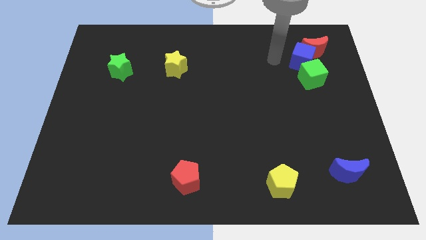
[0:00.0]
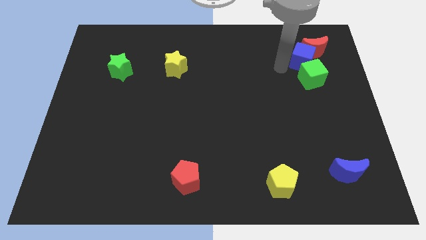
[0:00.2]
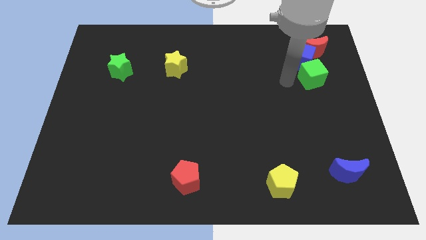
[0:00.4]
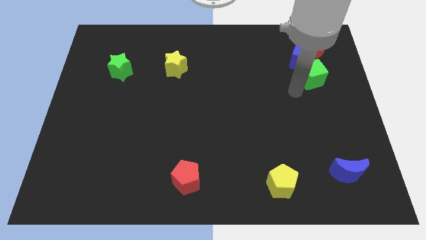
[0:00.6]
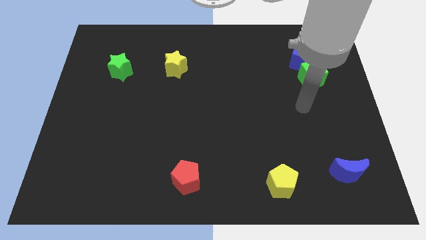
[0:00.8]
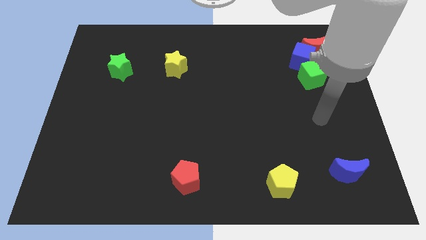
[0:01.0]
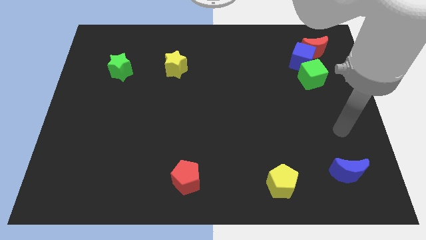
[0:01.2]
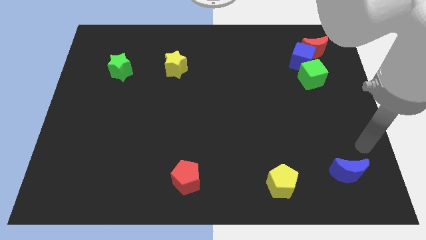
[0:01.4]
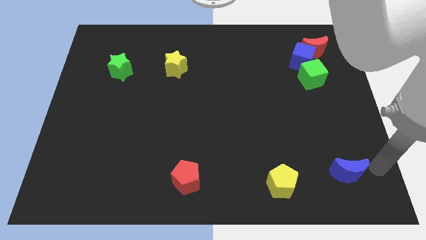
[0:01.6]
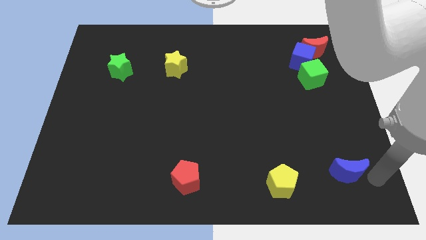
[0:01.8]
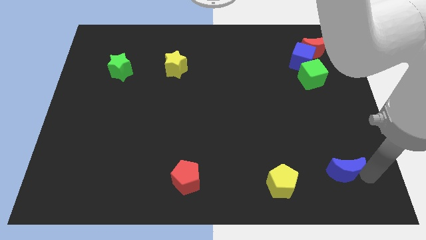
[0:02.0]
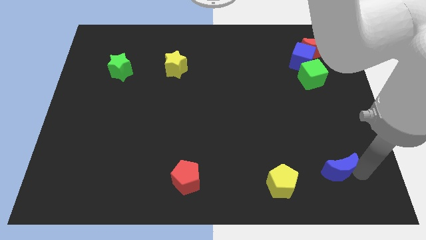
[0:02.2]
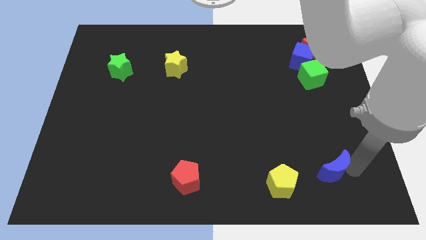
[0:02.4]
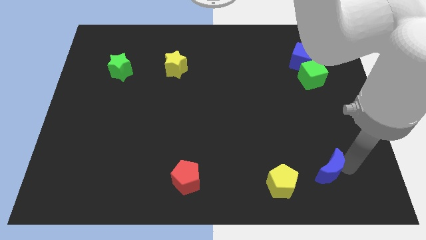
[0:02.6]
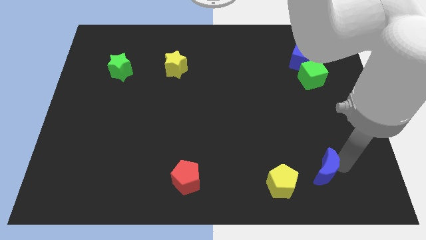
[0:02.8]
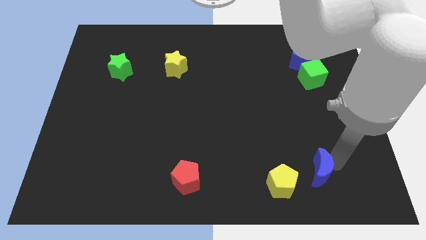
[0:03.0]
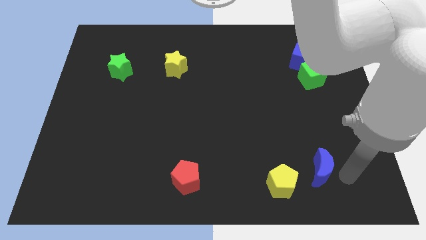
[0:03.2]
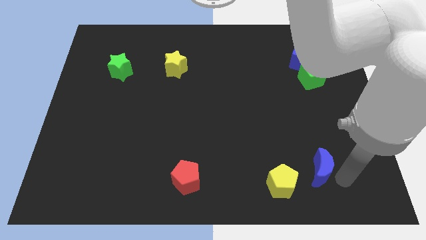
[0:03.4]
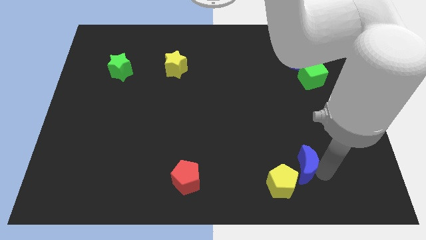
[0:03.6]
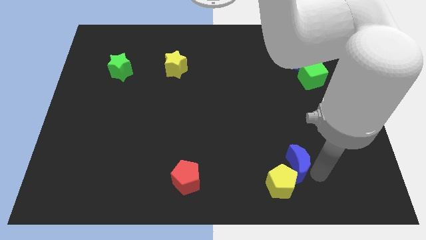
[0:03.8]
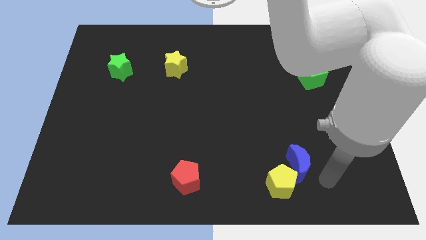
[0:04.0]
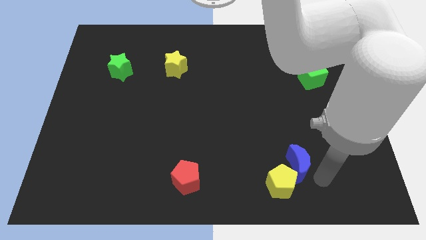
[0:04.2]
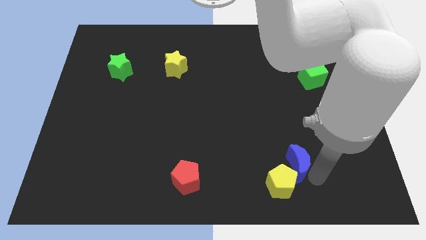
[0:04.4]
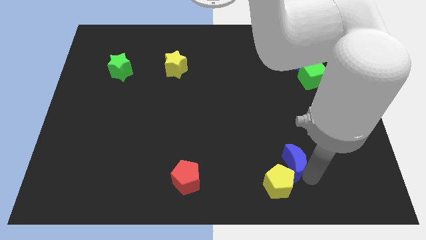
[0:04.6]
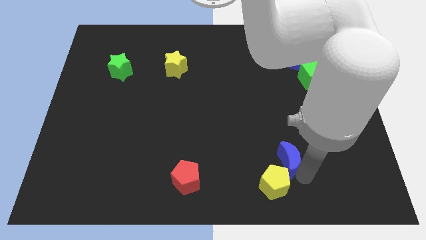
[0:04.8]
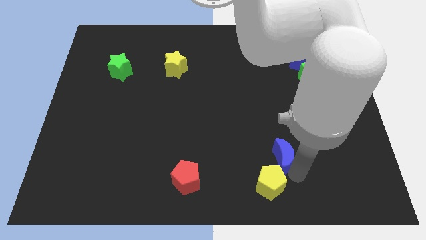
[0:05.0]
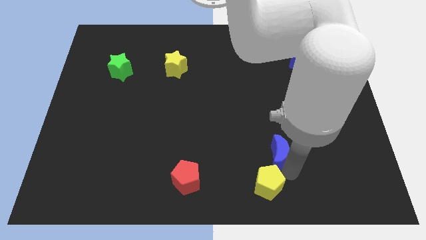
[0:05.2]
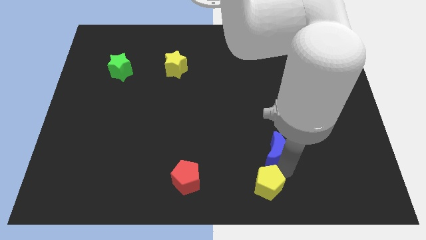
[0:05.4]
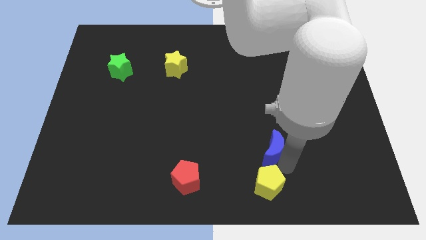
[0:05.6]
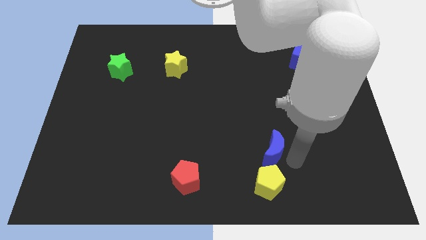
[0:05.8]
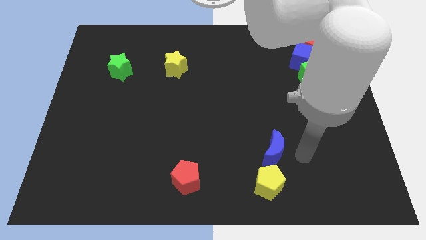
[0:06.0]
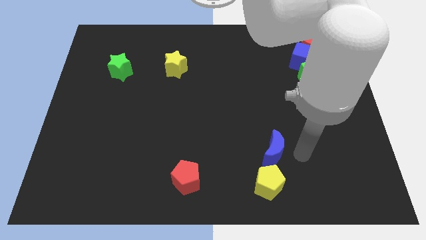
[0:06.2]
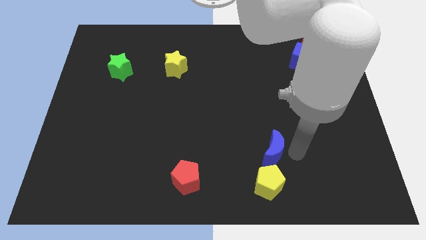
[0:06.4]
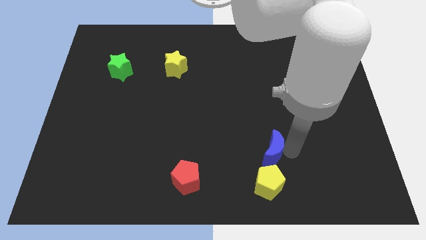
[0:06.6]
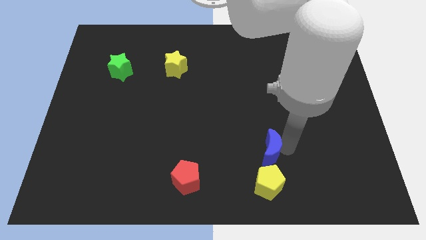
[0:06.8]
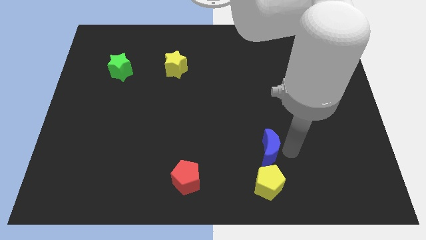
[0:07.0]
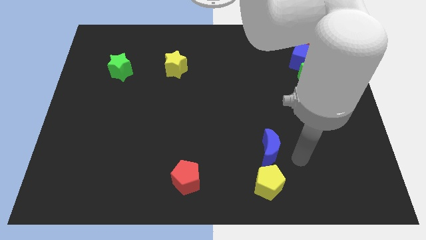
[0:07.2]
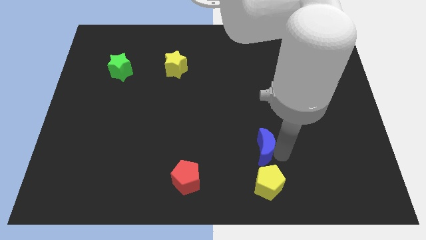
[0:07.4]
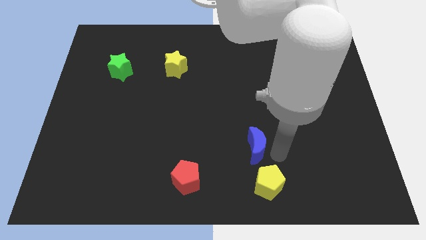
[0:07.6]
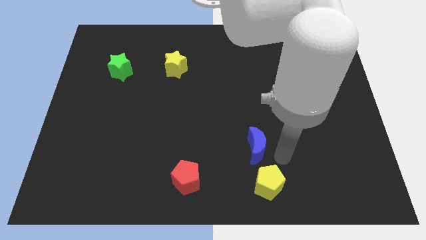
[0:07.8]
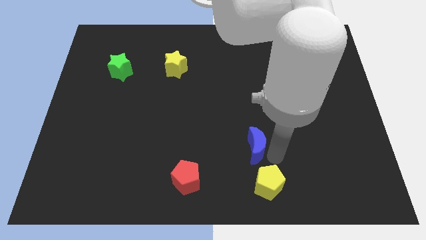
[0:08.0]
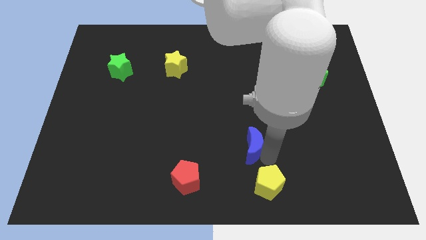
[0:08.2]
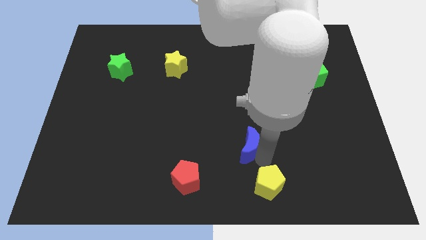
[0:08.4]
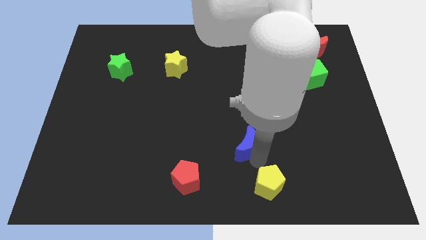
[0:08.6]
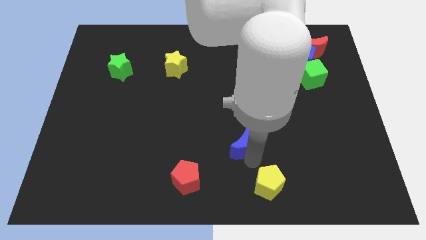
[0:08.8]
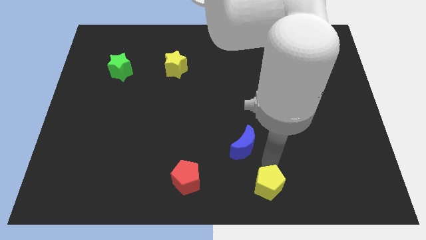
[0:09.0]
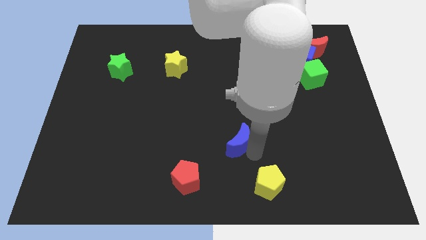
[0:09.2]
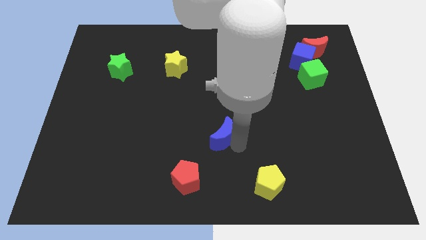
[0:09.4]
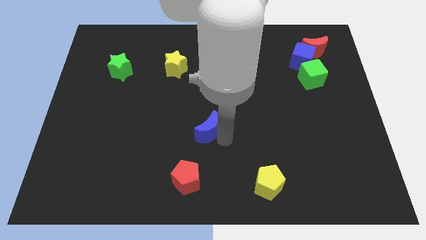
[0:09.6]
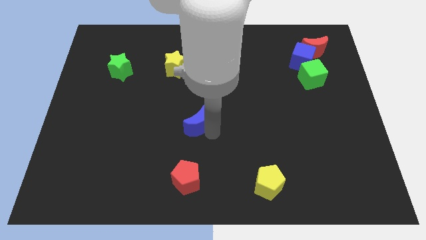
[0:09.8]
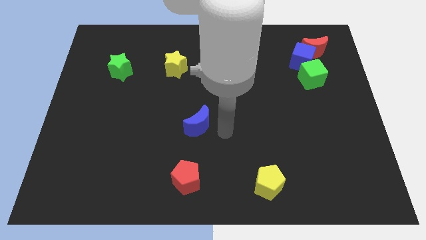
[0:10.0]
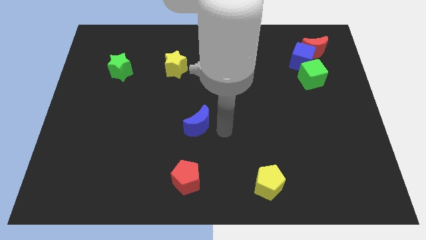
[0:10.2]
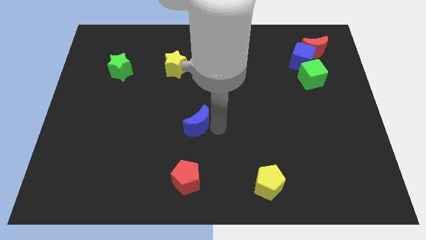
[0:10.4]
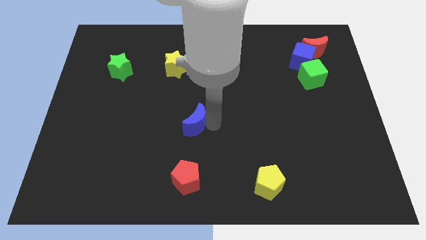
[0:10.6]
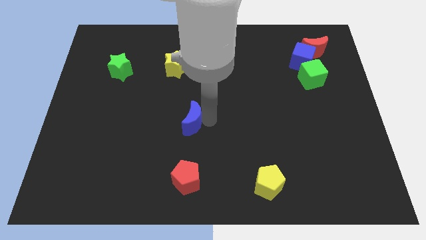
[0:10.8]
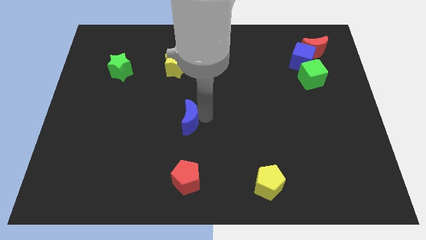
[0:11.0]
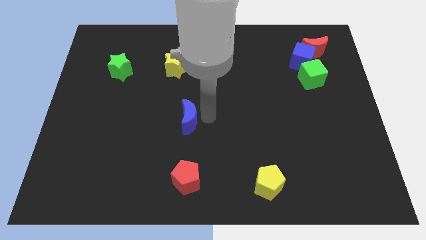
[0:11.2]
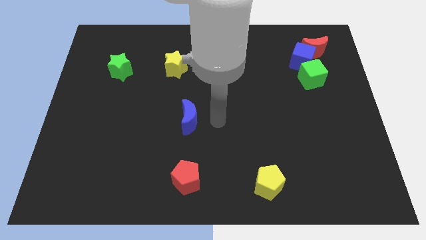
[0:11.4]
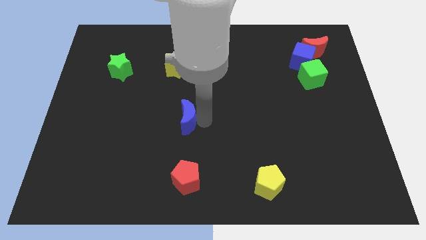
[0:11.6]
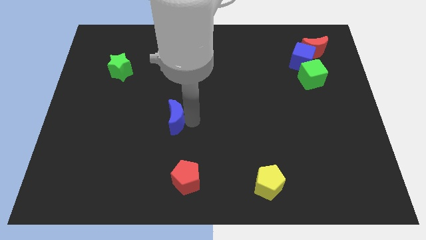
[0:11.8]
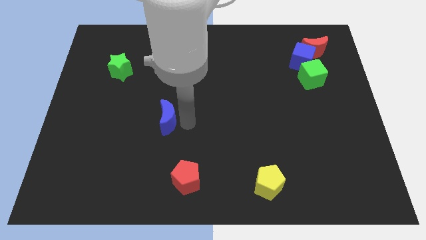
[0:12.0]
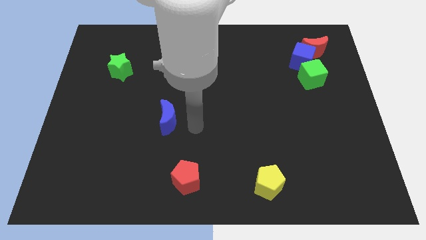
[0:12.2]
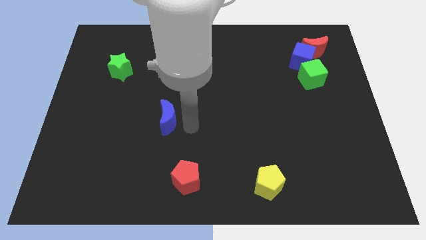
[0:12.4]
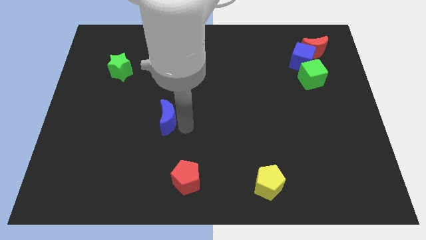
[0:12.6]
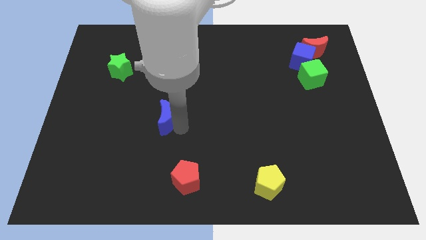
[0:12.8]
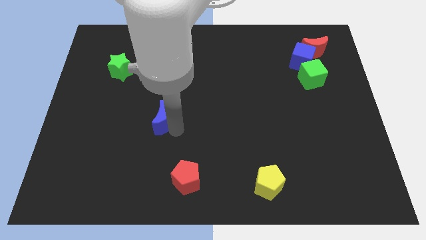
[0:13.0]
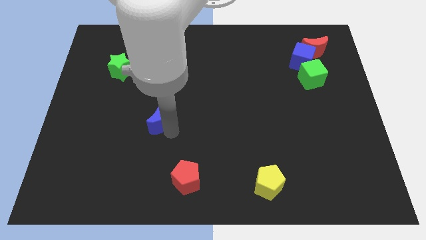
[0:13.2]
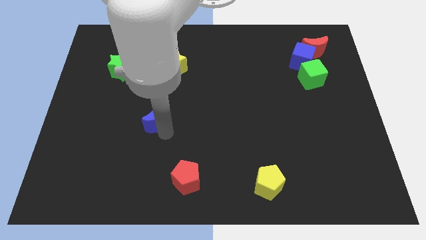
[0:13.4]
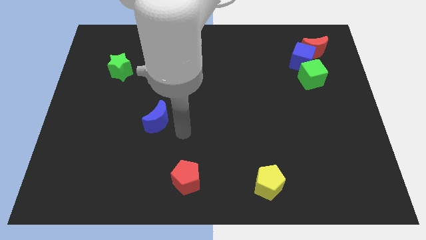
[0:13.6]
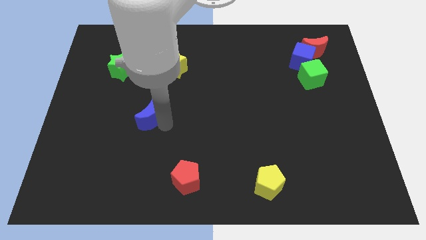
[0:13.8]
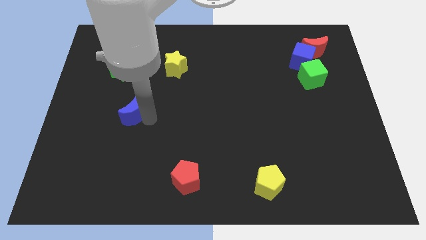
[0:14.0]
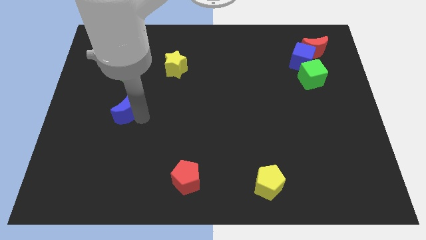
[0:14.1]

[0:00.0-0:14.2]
push the blue moon to the bottom side of the green star

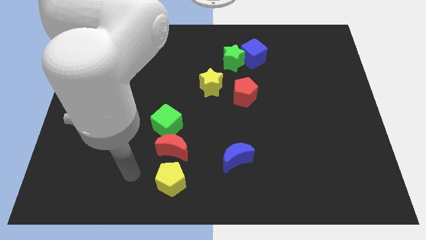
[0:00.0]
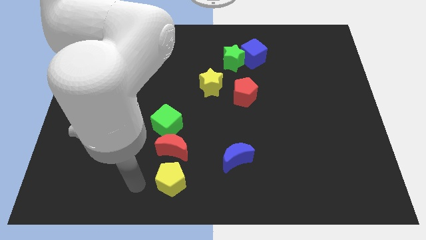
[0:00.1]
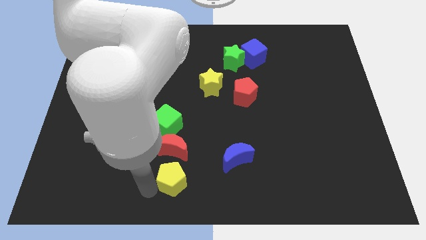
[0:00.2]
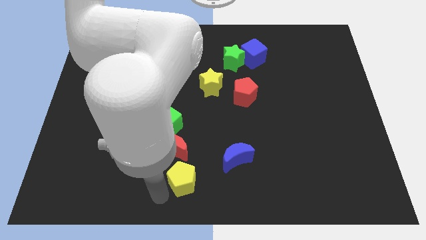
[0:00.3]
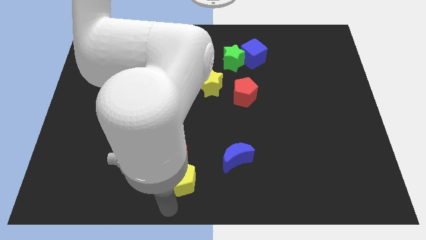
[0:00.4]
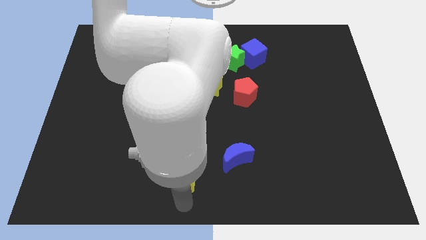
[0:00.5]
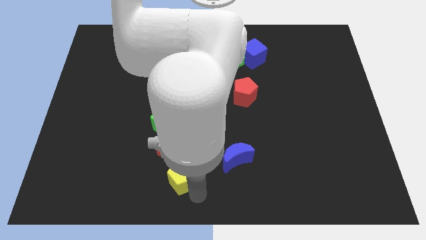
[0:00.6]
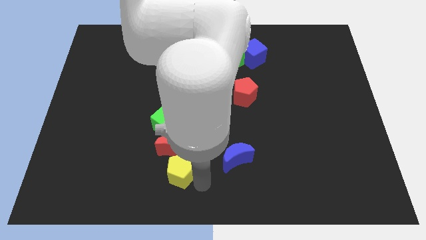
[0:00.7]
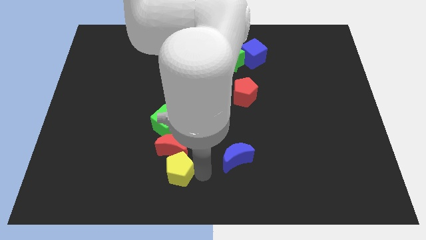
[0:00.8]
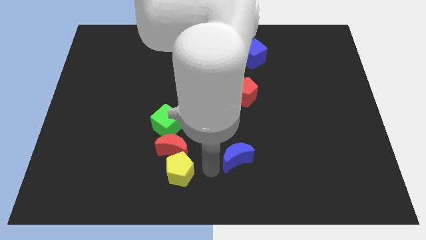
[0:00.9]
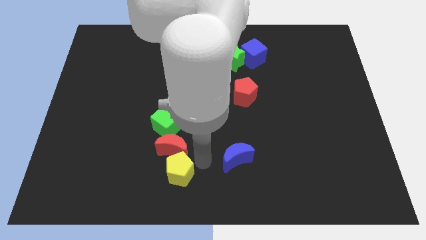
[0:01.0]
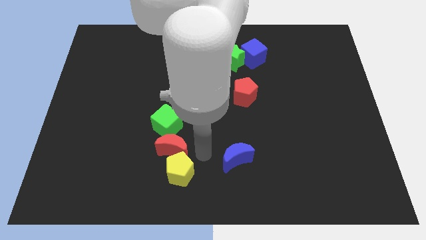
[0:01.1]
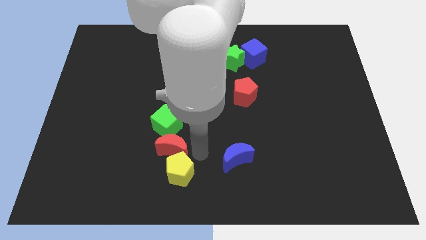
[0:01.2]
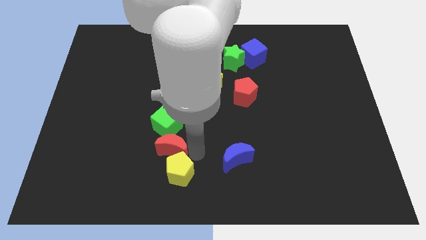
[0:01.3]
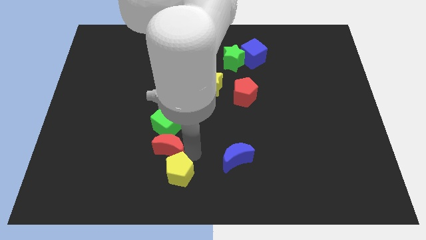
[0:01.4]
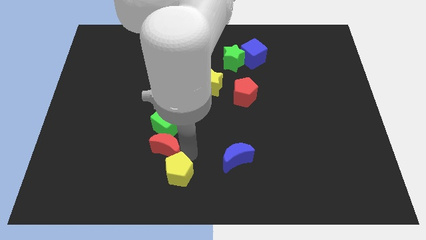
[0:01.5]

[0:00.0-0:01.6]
move the red moon to the bottom left of the green cube
